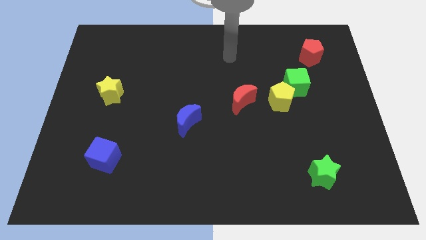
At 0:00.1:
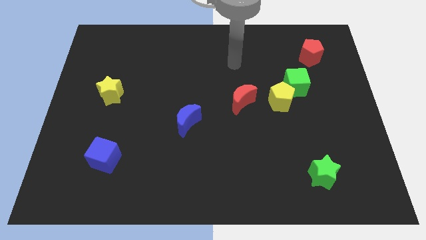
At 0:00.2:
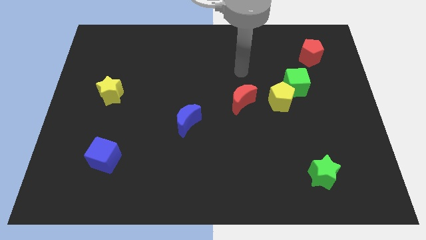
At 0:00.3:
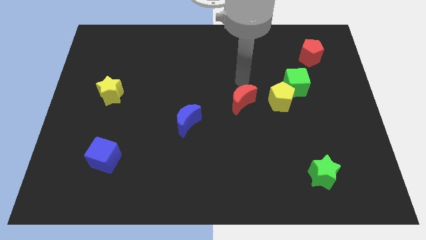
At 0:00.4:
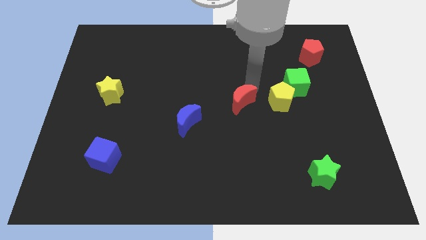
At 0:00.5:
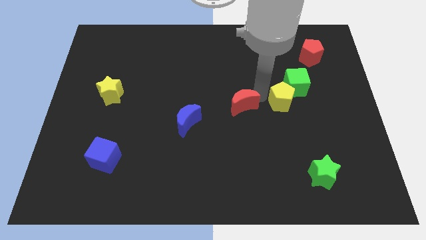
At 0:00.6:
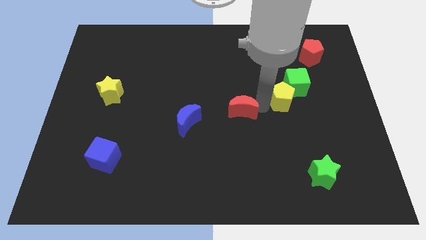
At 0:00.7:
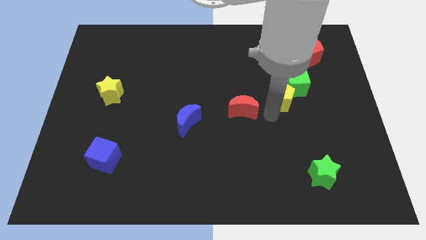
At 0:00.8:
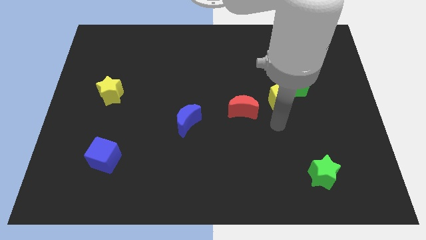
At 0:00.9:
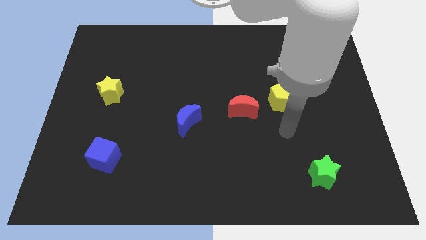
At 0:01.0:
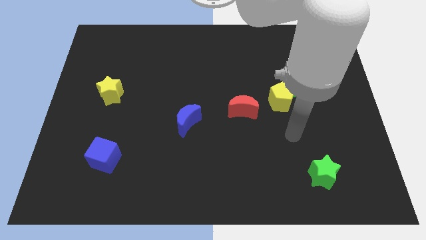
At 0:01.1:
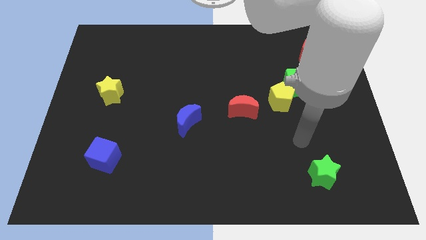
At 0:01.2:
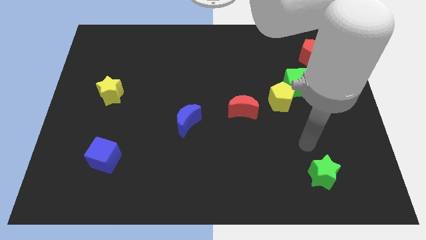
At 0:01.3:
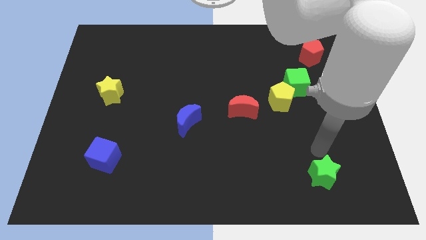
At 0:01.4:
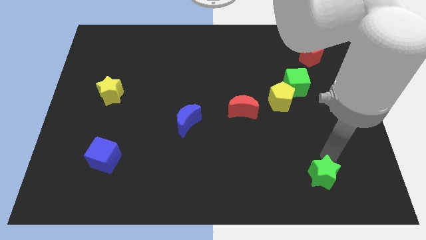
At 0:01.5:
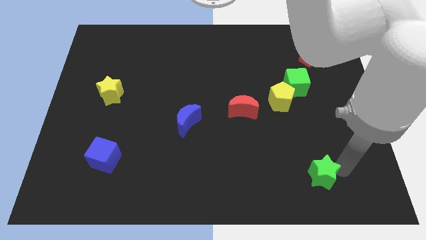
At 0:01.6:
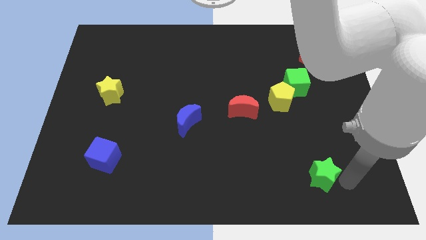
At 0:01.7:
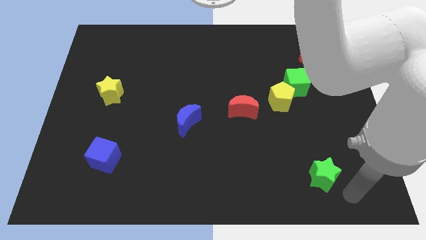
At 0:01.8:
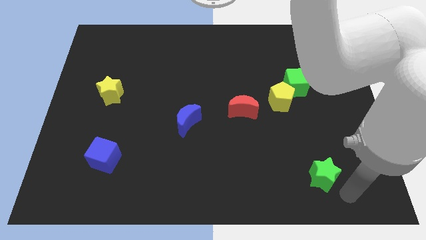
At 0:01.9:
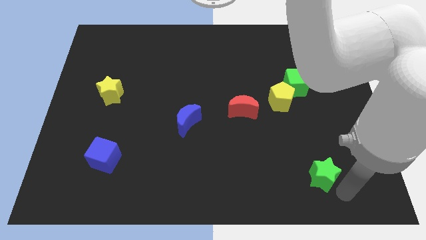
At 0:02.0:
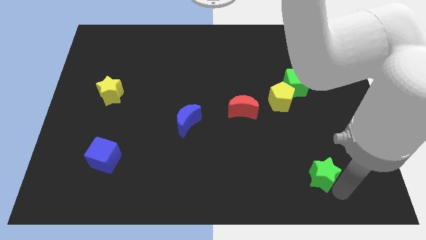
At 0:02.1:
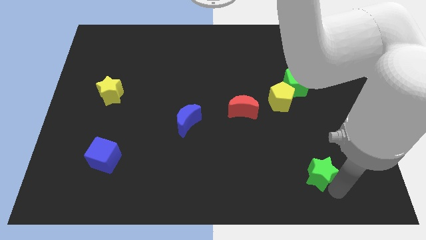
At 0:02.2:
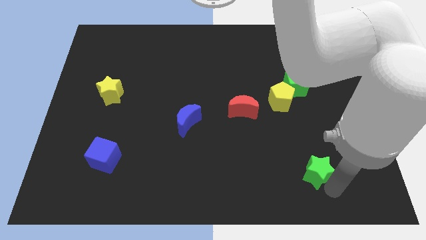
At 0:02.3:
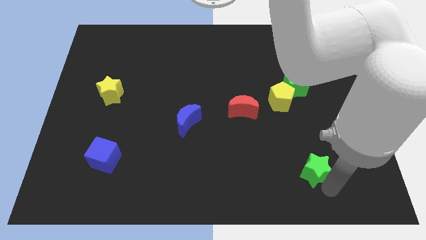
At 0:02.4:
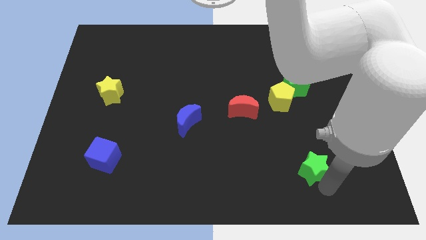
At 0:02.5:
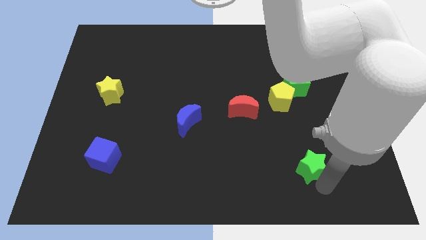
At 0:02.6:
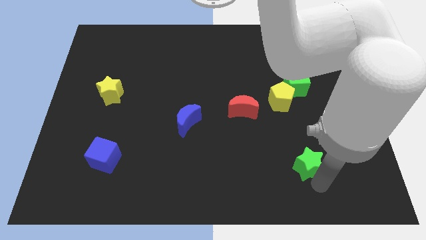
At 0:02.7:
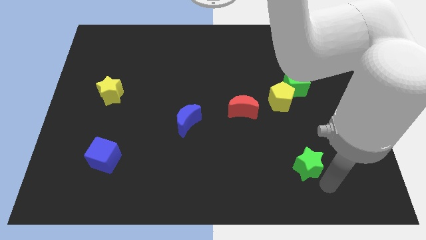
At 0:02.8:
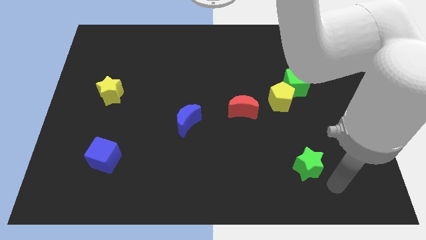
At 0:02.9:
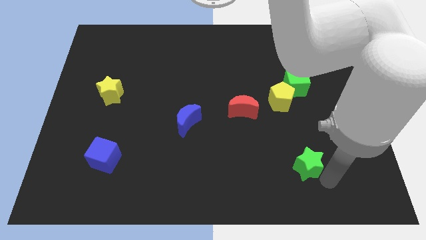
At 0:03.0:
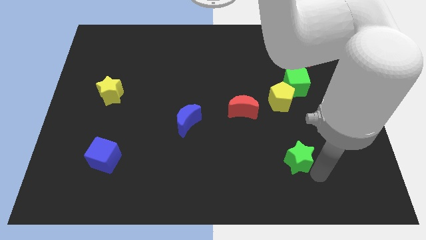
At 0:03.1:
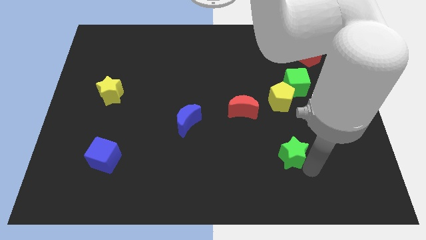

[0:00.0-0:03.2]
slide the green star a bit upwards and to the left

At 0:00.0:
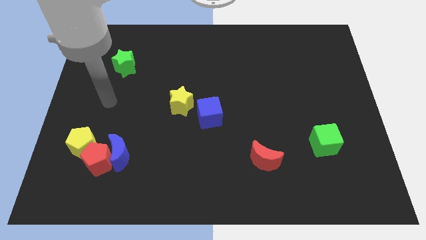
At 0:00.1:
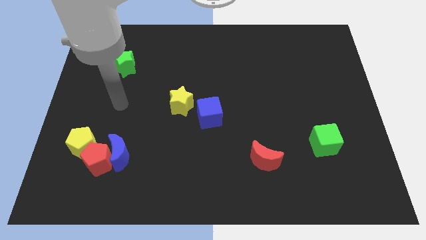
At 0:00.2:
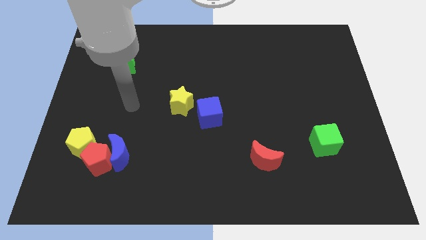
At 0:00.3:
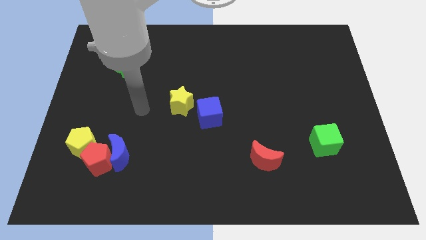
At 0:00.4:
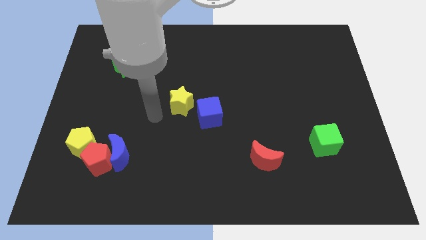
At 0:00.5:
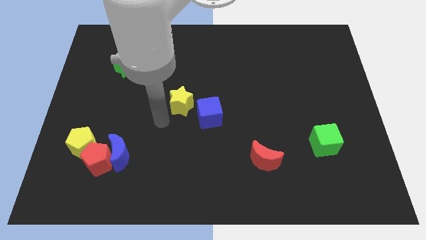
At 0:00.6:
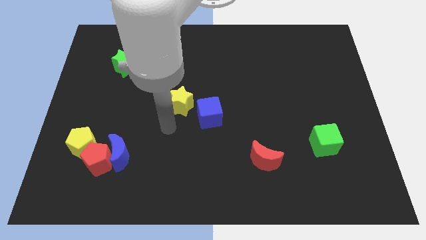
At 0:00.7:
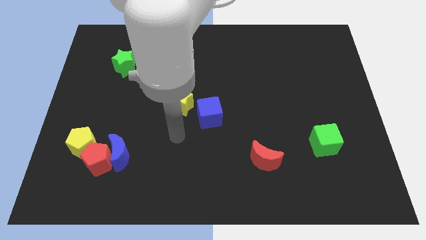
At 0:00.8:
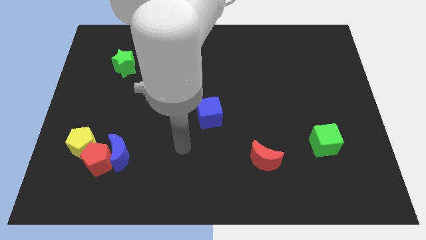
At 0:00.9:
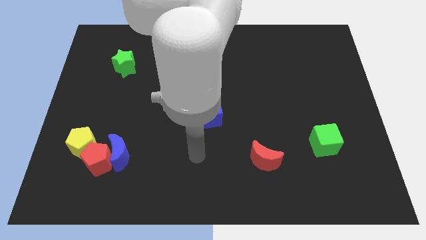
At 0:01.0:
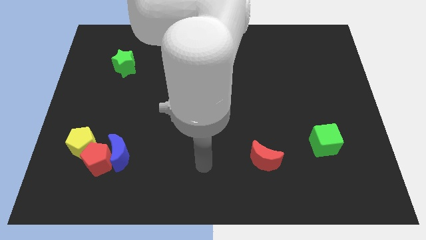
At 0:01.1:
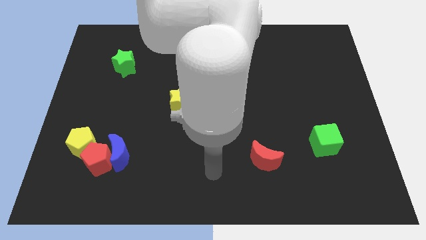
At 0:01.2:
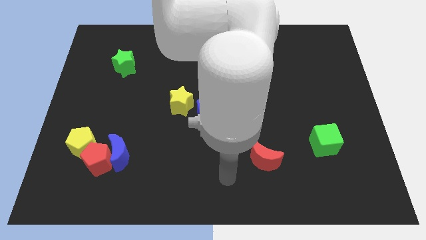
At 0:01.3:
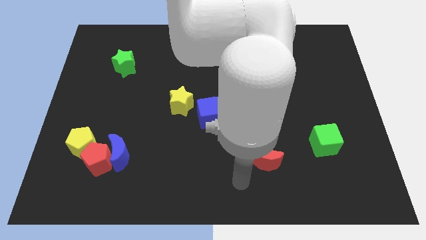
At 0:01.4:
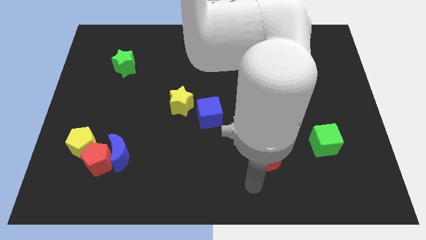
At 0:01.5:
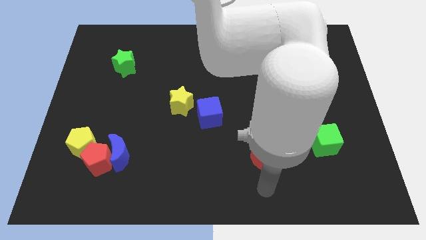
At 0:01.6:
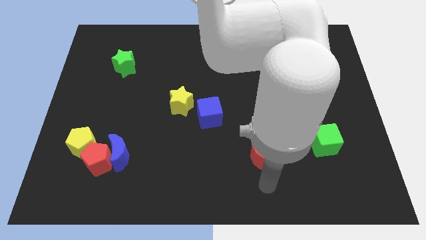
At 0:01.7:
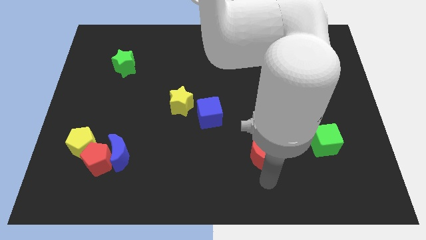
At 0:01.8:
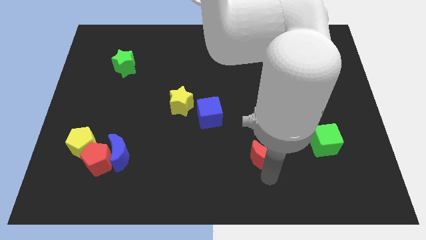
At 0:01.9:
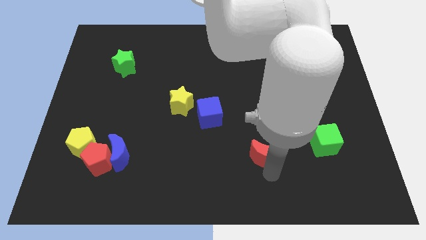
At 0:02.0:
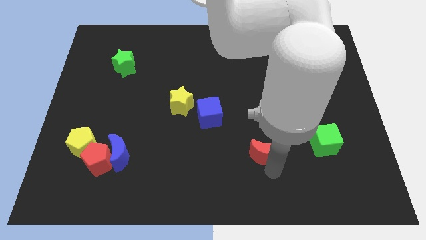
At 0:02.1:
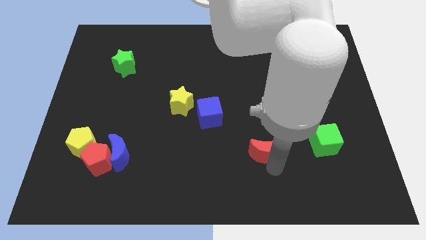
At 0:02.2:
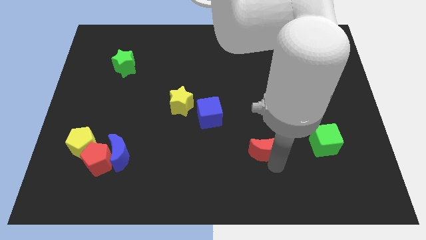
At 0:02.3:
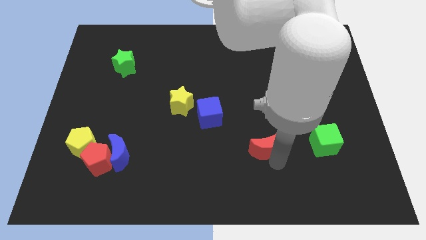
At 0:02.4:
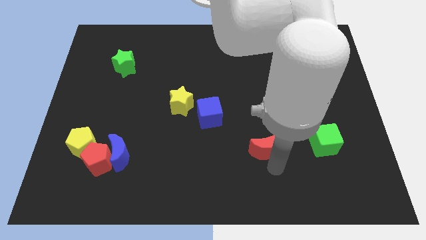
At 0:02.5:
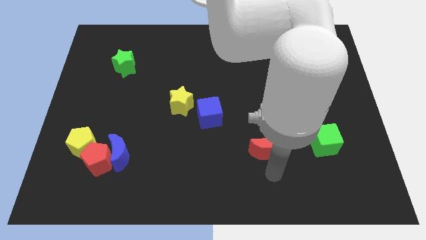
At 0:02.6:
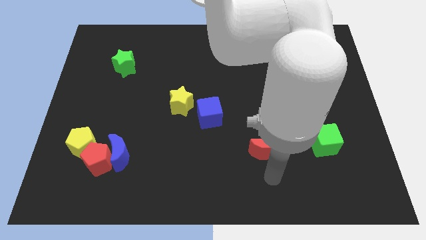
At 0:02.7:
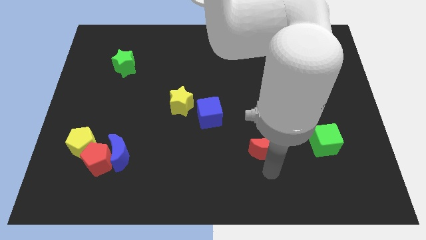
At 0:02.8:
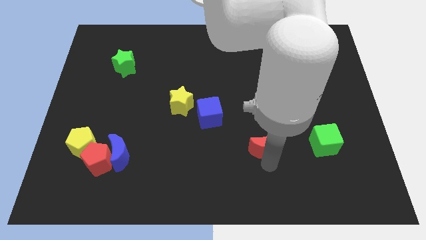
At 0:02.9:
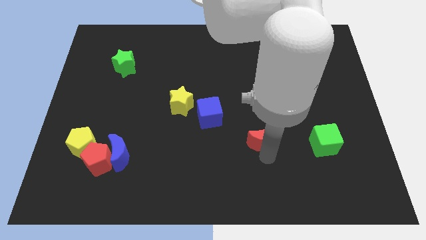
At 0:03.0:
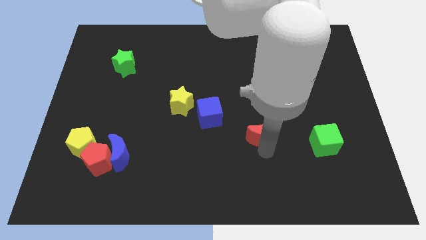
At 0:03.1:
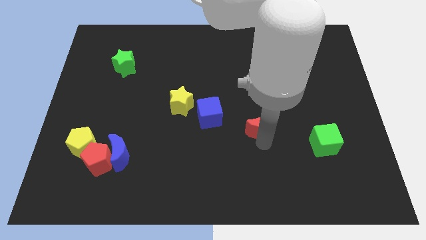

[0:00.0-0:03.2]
push the red moon a little bit up

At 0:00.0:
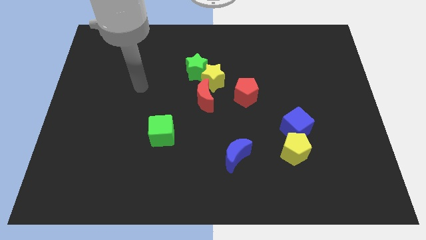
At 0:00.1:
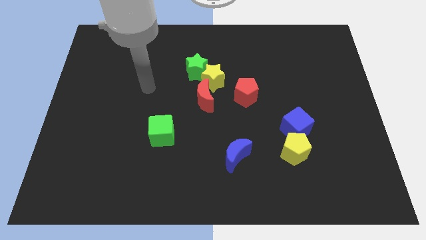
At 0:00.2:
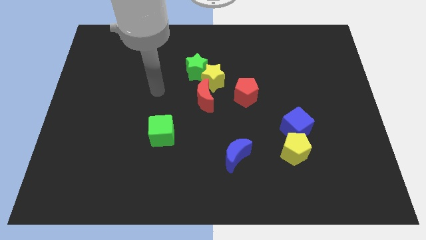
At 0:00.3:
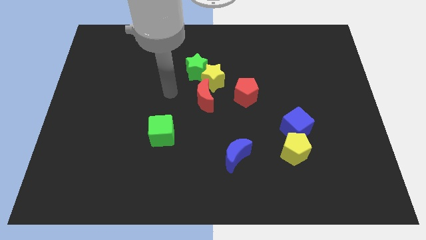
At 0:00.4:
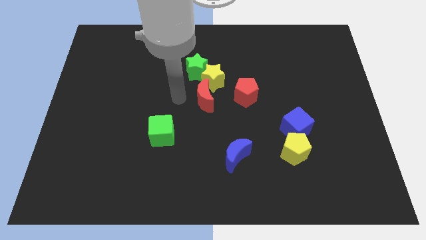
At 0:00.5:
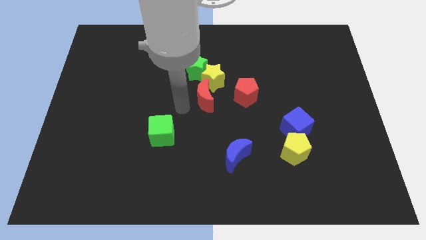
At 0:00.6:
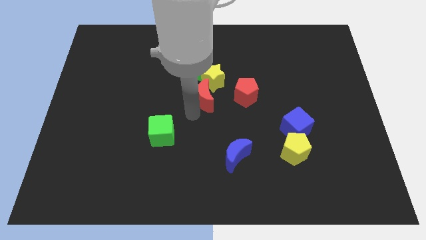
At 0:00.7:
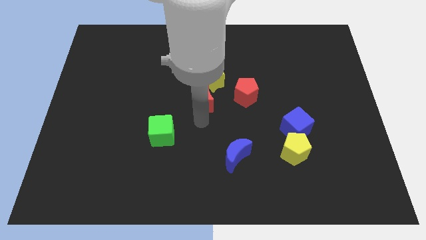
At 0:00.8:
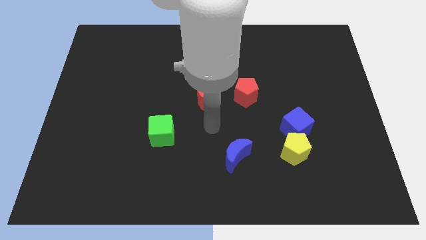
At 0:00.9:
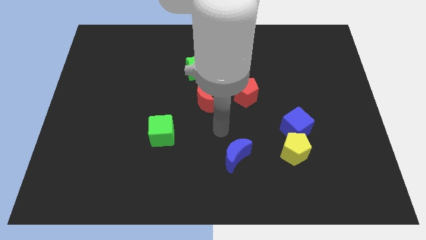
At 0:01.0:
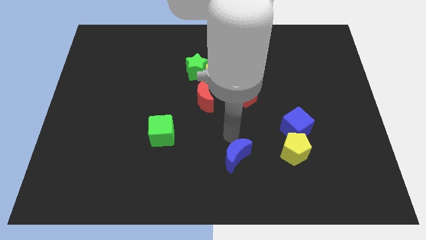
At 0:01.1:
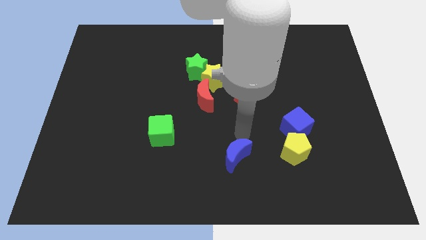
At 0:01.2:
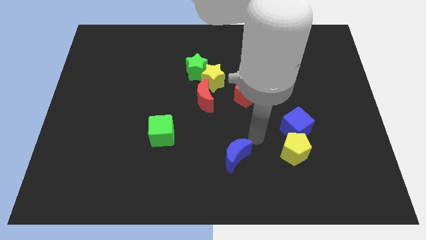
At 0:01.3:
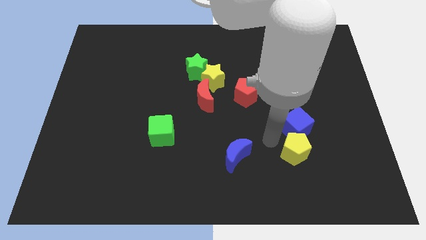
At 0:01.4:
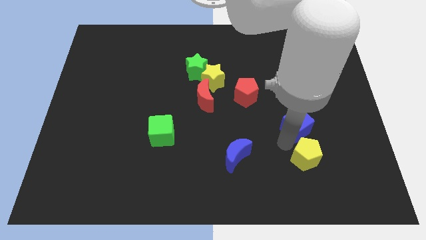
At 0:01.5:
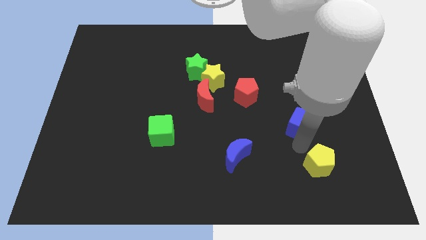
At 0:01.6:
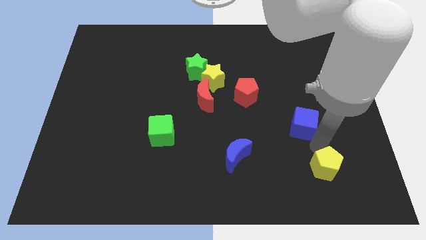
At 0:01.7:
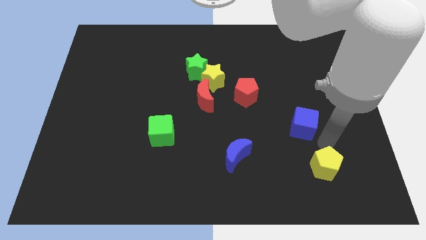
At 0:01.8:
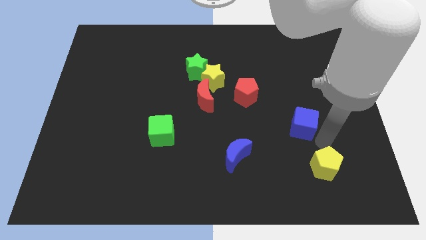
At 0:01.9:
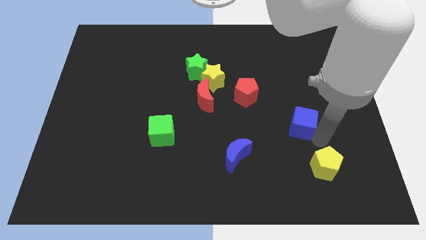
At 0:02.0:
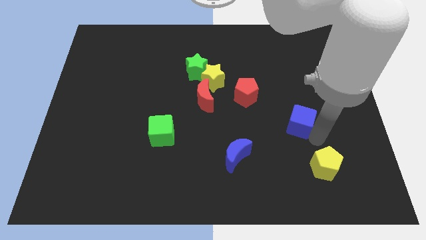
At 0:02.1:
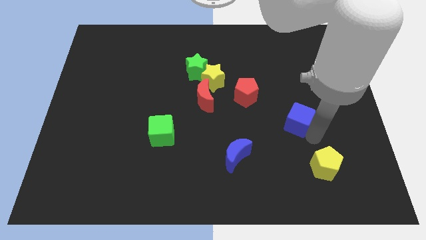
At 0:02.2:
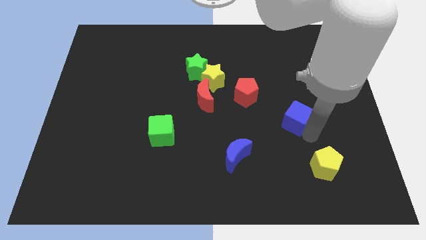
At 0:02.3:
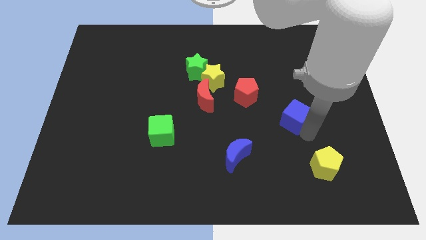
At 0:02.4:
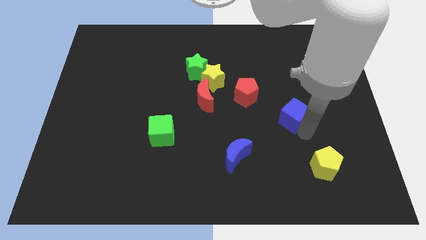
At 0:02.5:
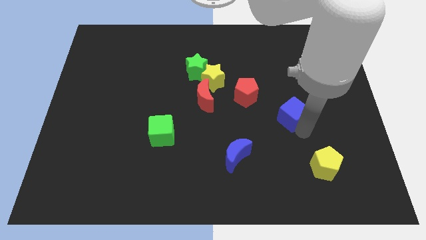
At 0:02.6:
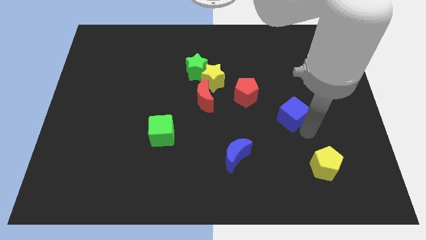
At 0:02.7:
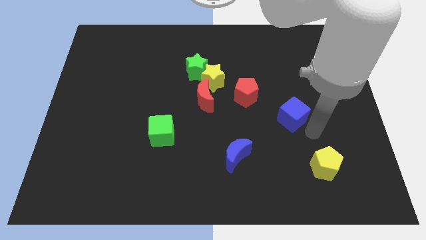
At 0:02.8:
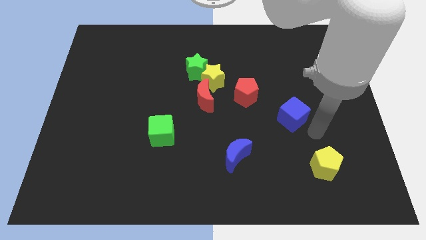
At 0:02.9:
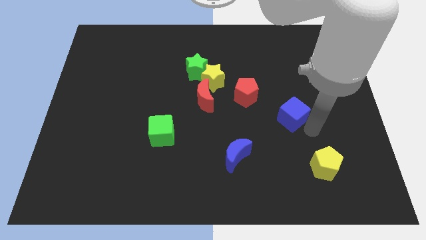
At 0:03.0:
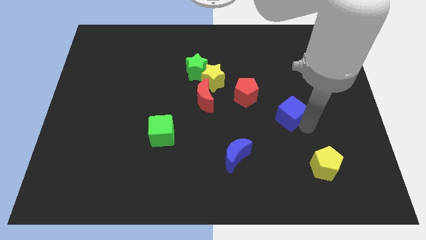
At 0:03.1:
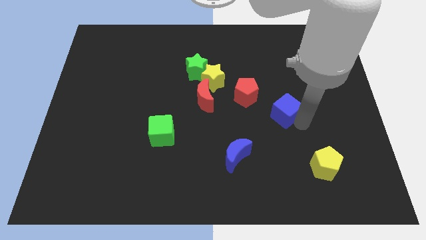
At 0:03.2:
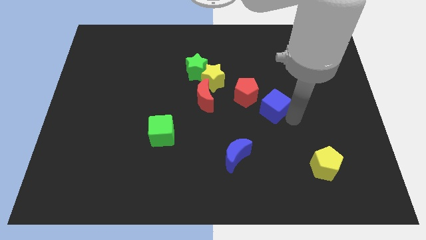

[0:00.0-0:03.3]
slide the blue cube up and to the left a little
